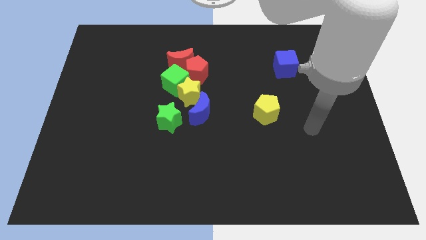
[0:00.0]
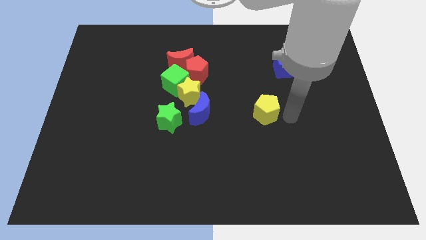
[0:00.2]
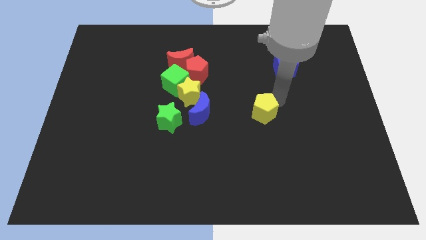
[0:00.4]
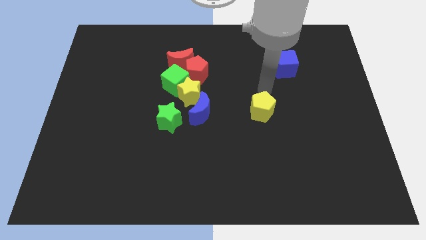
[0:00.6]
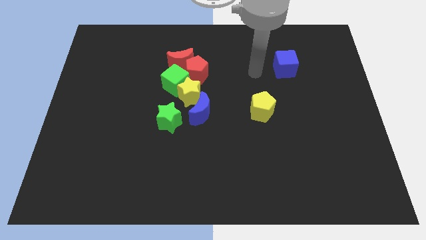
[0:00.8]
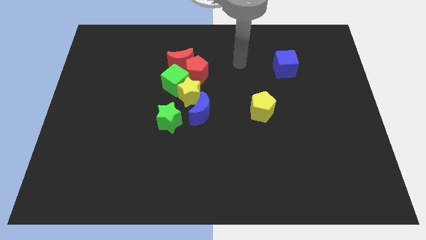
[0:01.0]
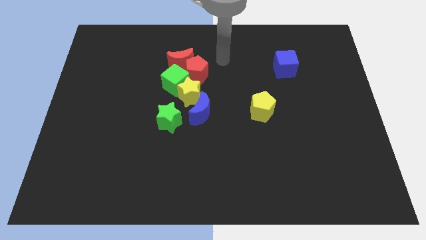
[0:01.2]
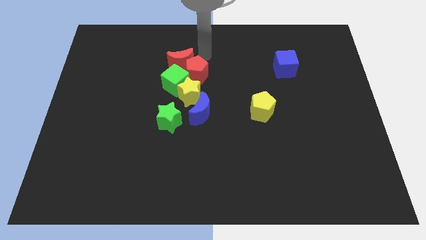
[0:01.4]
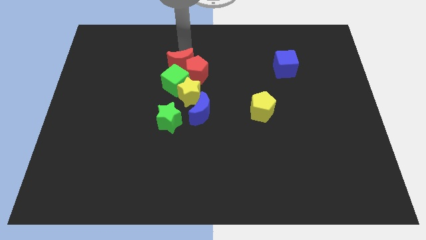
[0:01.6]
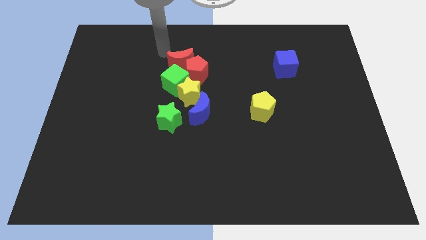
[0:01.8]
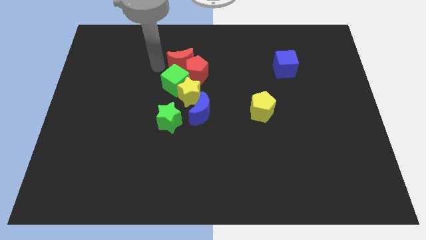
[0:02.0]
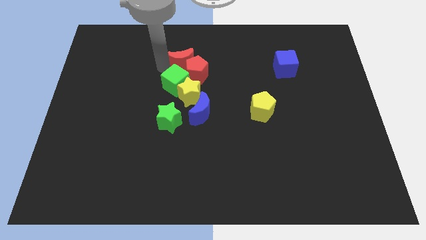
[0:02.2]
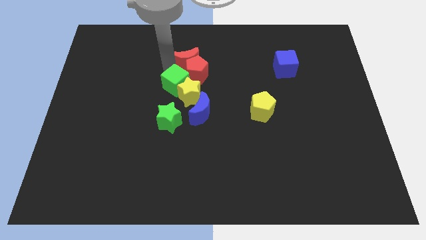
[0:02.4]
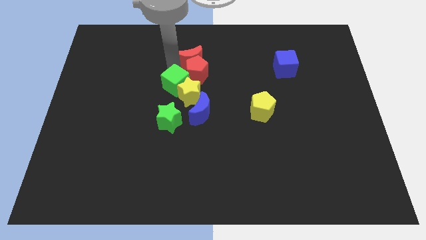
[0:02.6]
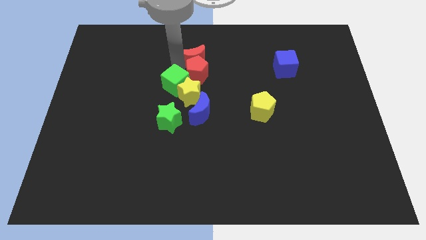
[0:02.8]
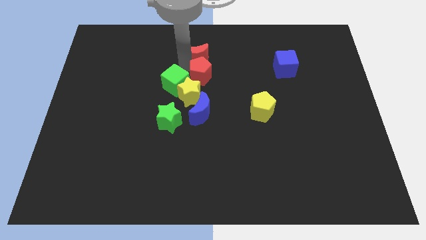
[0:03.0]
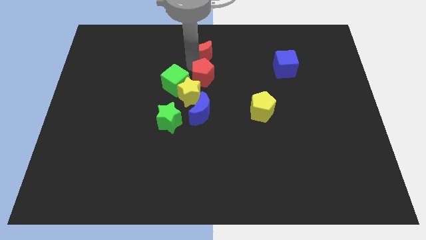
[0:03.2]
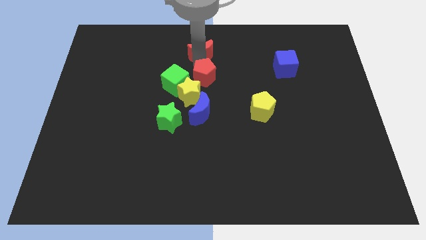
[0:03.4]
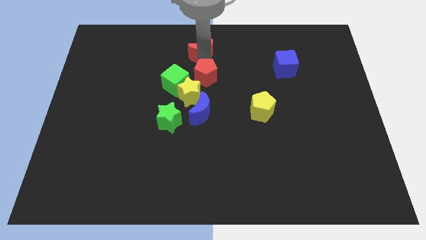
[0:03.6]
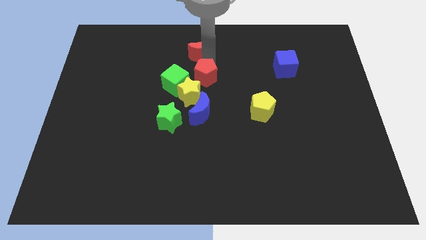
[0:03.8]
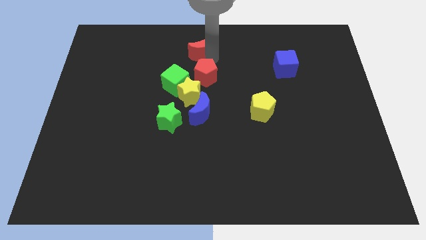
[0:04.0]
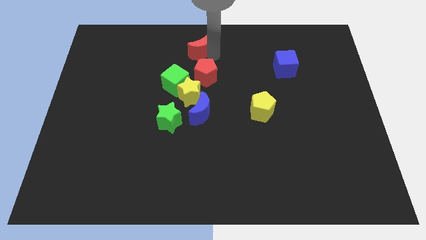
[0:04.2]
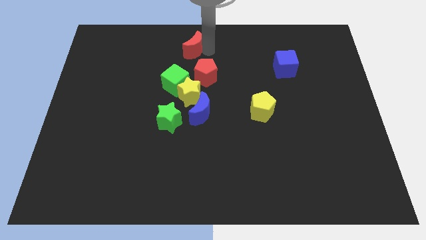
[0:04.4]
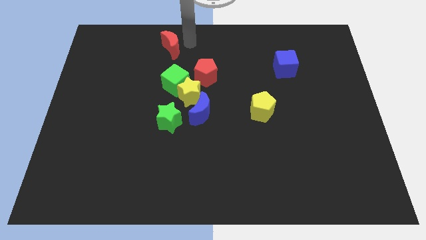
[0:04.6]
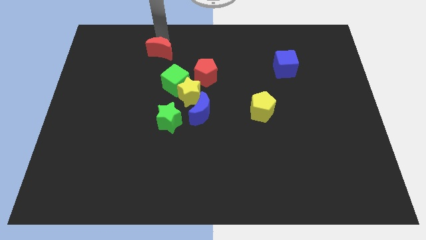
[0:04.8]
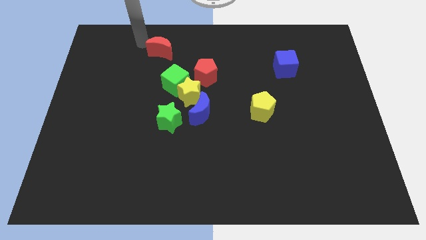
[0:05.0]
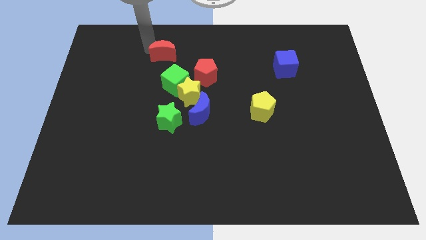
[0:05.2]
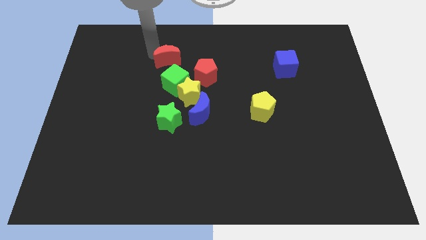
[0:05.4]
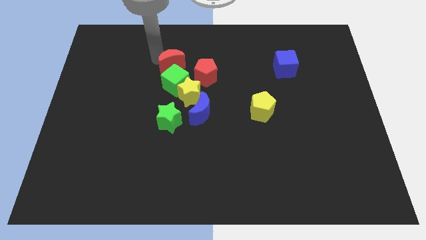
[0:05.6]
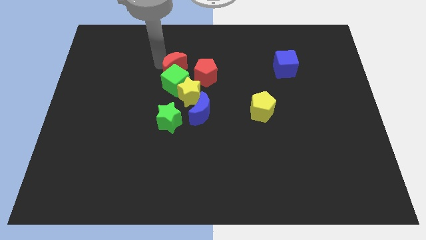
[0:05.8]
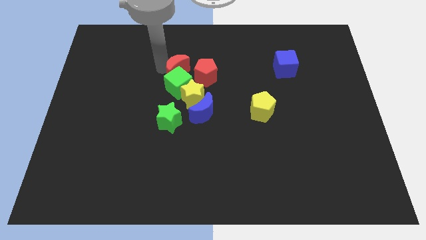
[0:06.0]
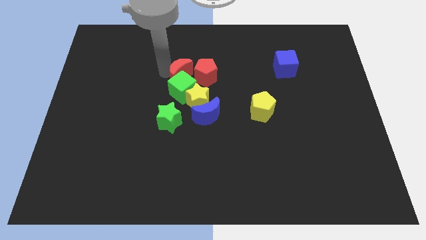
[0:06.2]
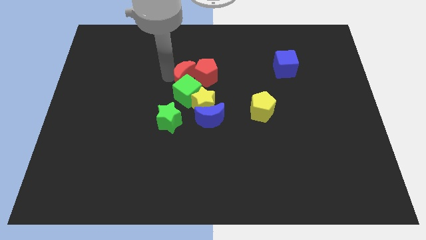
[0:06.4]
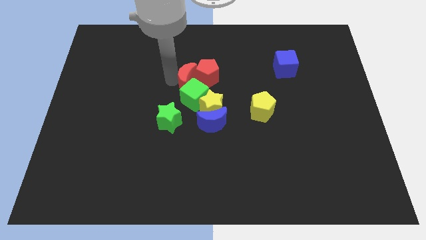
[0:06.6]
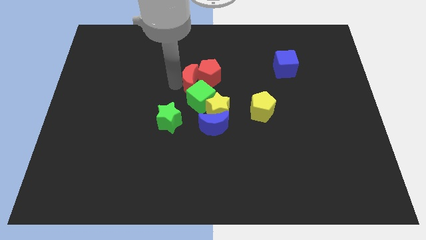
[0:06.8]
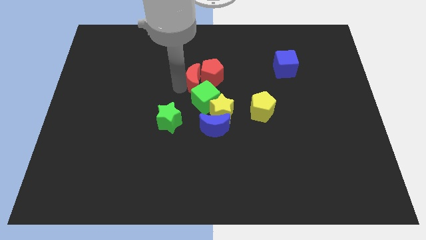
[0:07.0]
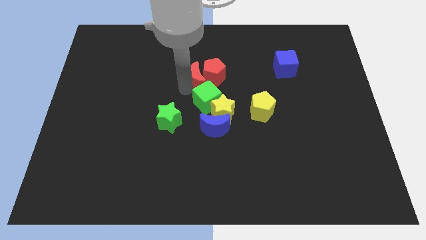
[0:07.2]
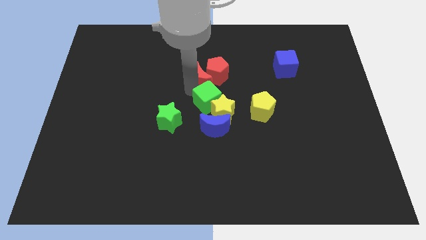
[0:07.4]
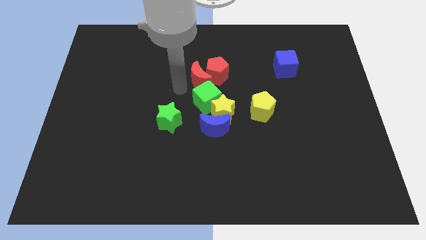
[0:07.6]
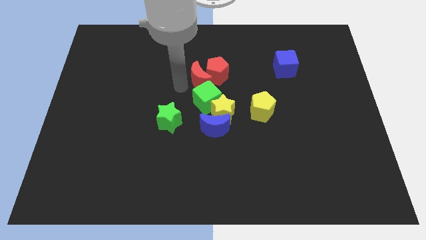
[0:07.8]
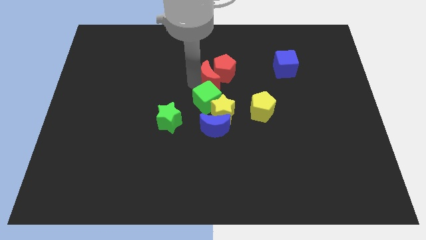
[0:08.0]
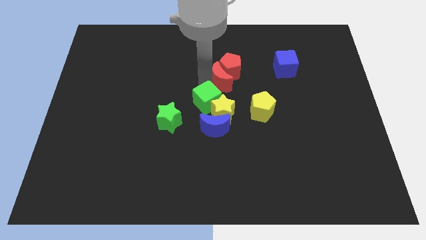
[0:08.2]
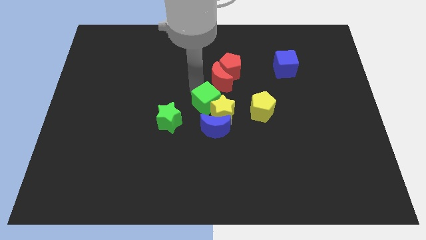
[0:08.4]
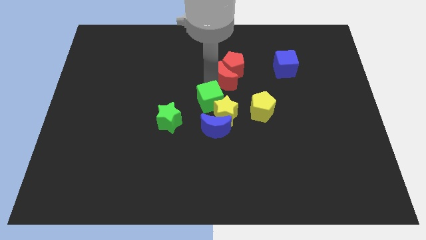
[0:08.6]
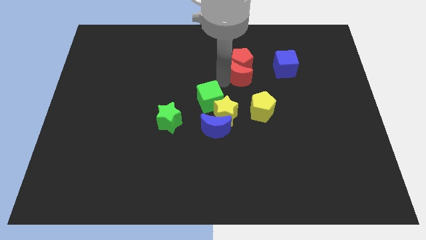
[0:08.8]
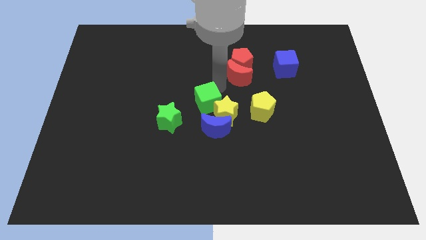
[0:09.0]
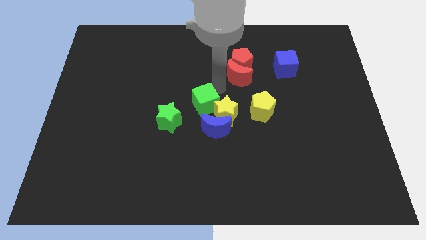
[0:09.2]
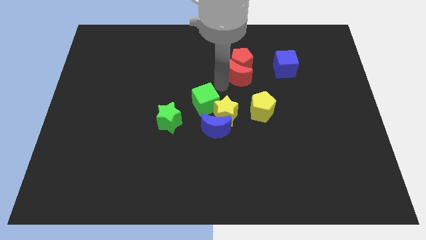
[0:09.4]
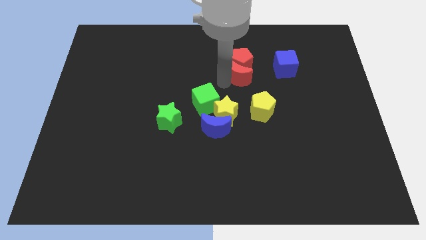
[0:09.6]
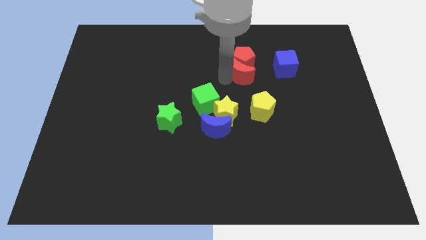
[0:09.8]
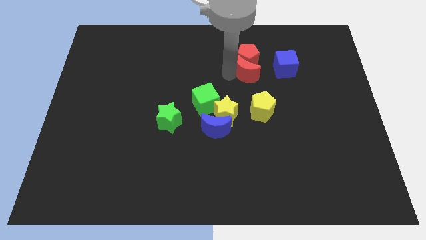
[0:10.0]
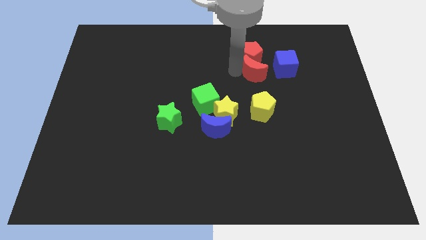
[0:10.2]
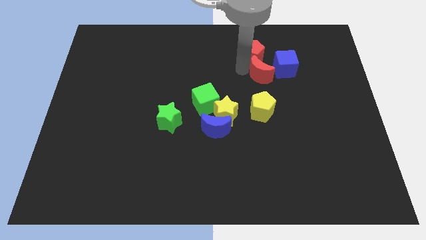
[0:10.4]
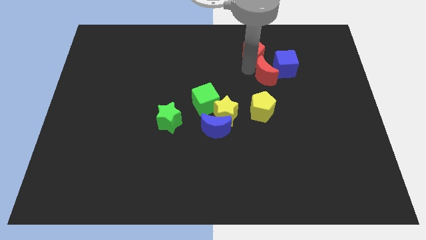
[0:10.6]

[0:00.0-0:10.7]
slide the red moon next to the blue cube

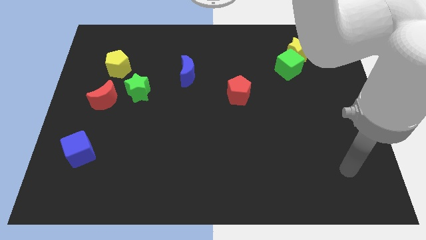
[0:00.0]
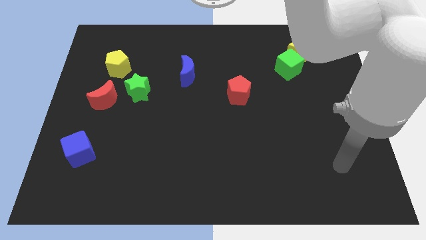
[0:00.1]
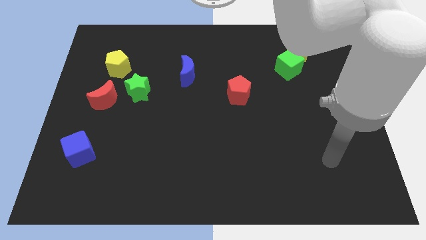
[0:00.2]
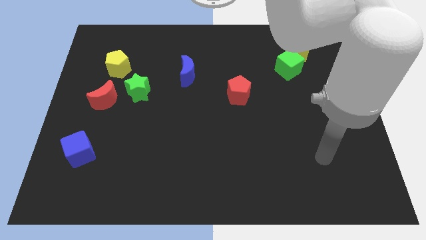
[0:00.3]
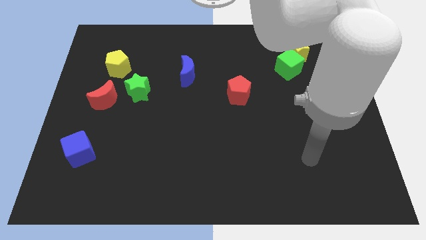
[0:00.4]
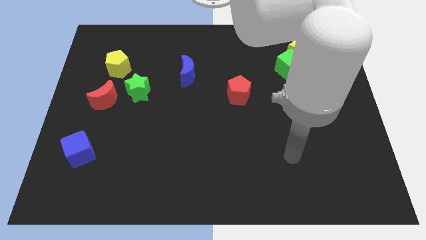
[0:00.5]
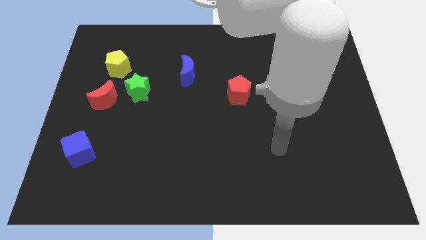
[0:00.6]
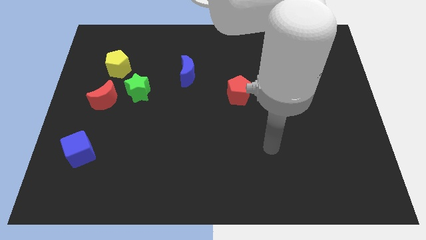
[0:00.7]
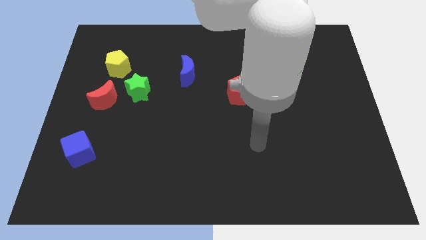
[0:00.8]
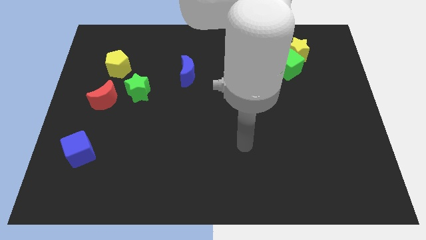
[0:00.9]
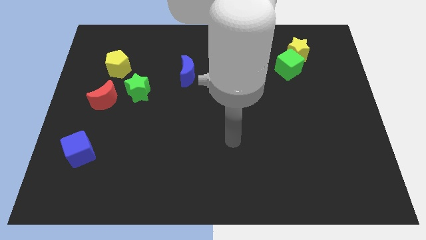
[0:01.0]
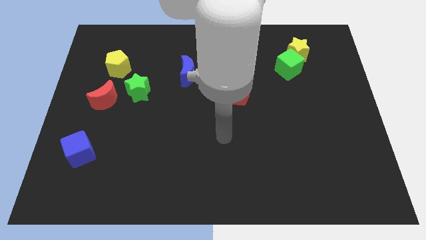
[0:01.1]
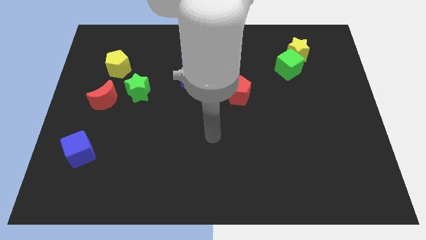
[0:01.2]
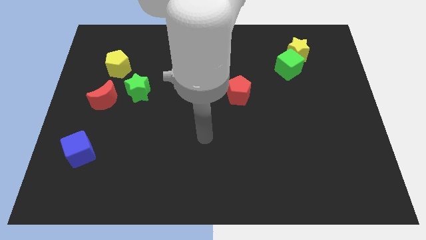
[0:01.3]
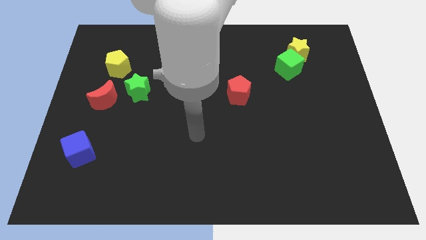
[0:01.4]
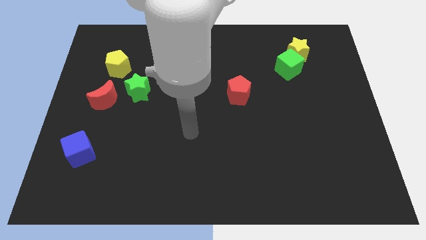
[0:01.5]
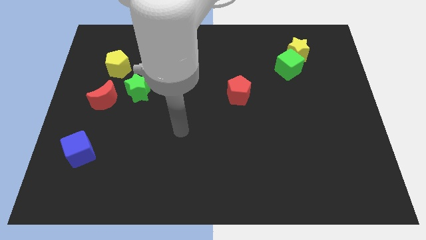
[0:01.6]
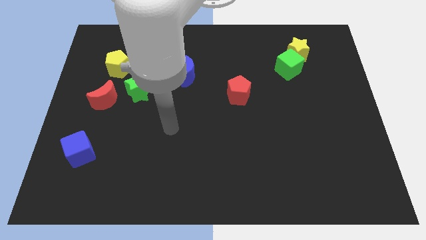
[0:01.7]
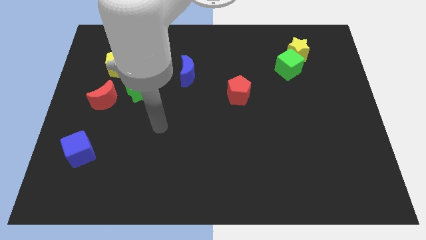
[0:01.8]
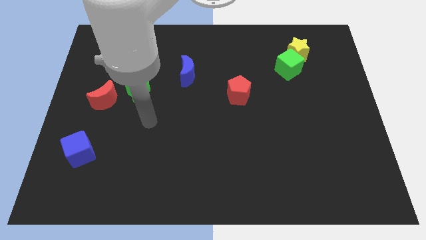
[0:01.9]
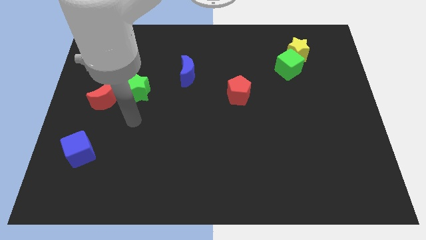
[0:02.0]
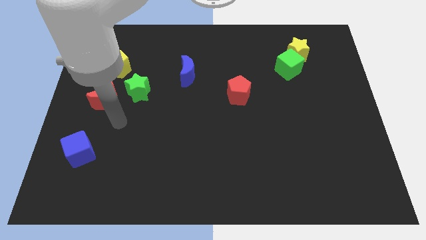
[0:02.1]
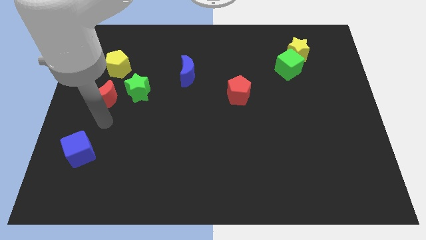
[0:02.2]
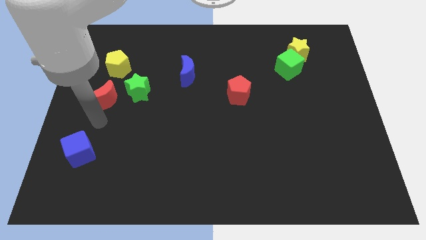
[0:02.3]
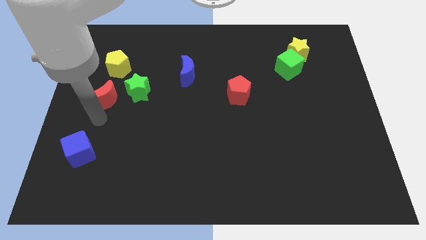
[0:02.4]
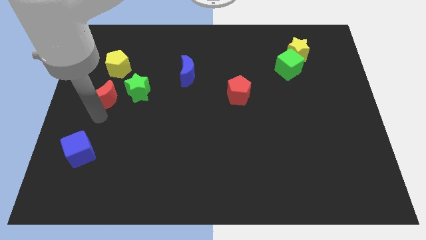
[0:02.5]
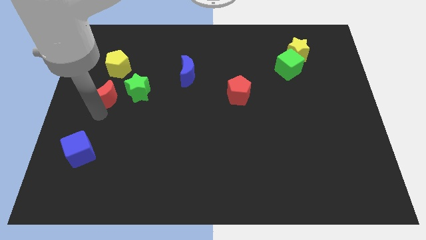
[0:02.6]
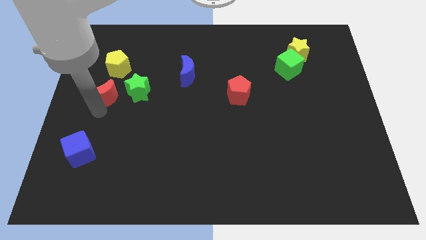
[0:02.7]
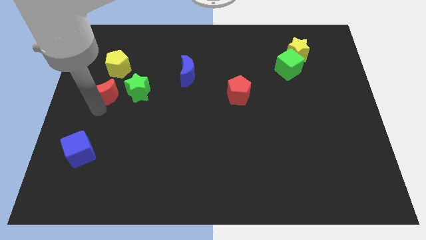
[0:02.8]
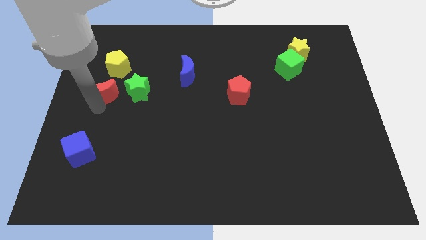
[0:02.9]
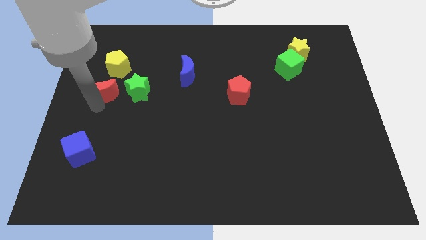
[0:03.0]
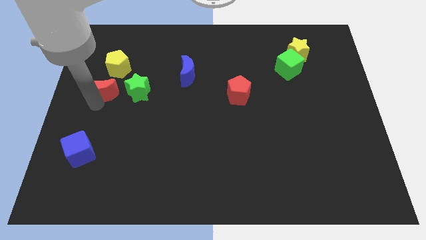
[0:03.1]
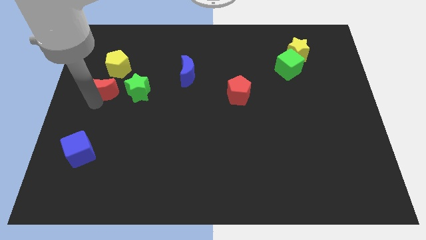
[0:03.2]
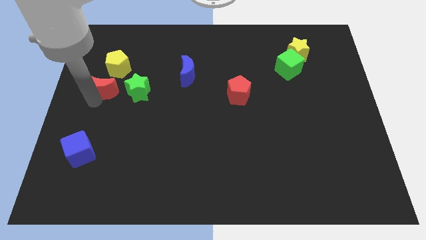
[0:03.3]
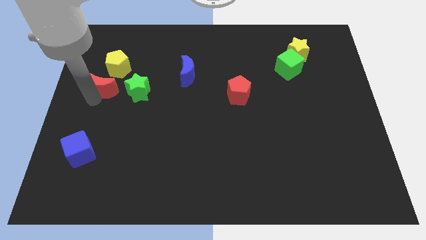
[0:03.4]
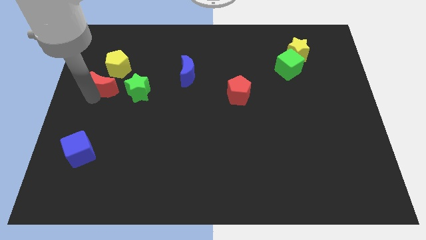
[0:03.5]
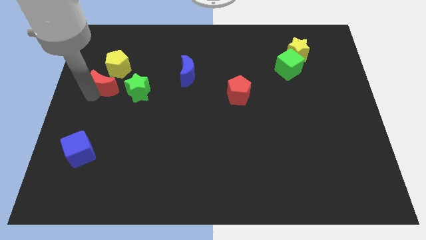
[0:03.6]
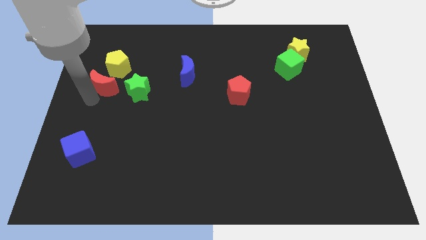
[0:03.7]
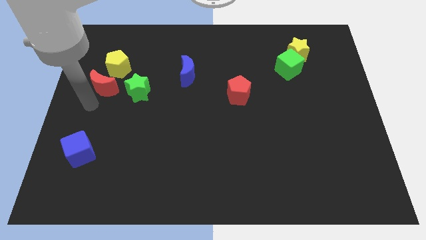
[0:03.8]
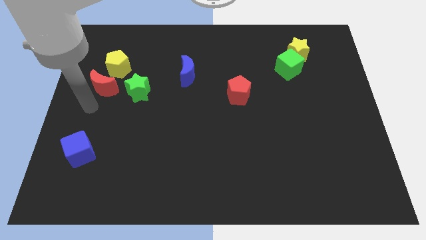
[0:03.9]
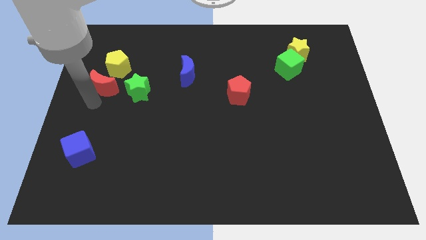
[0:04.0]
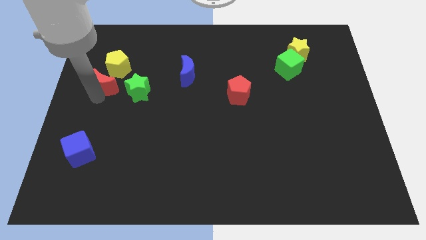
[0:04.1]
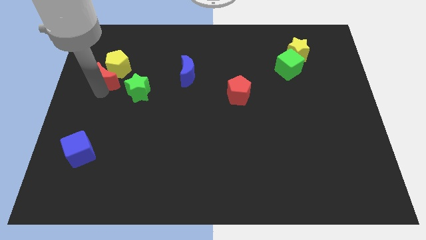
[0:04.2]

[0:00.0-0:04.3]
move the red moon towards the yellow pentagon
